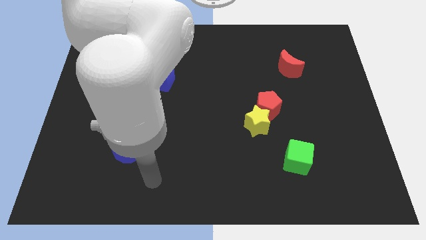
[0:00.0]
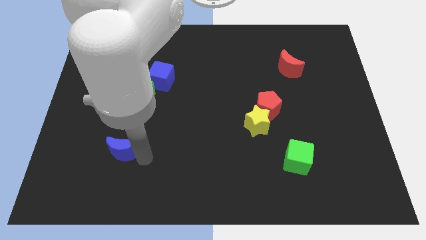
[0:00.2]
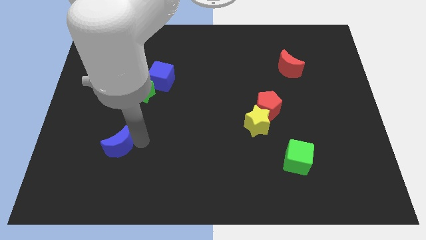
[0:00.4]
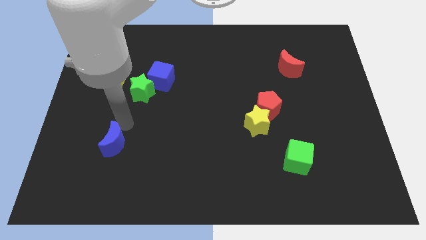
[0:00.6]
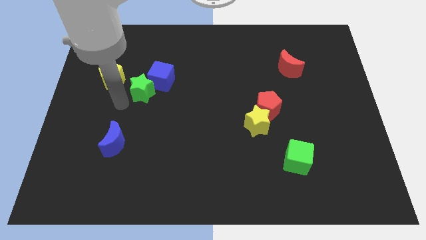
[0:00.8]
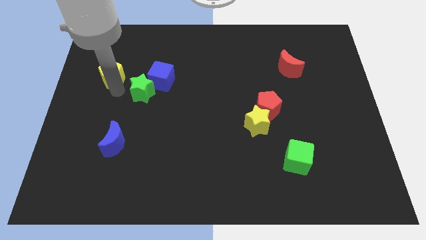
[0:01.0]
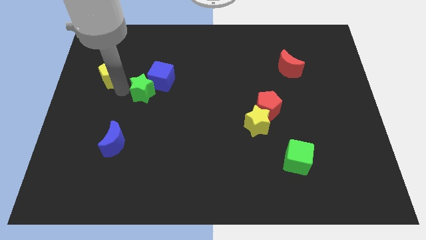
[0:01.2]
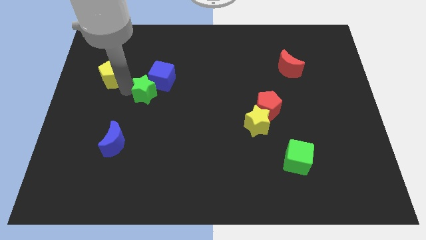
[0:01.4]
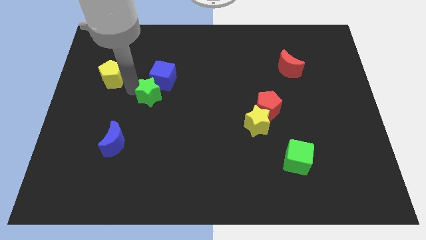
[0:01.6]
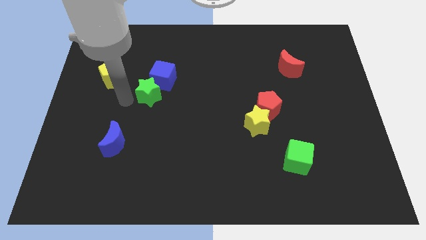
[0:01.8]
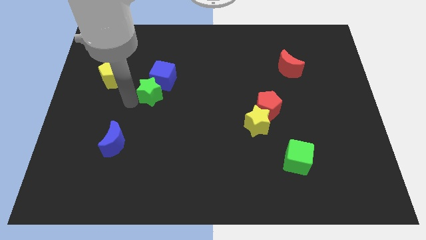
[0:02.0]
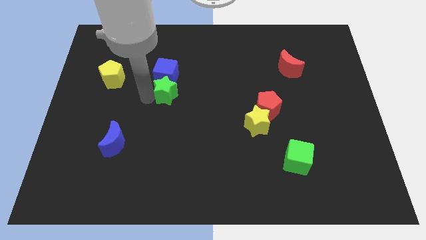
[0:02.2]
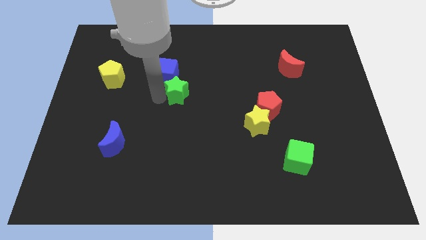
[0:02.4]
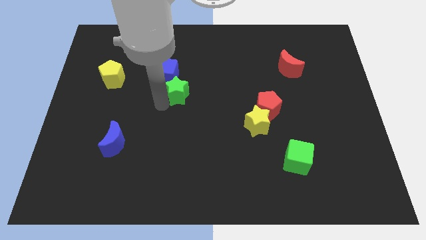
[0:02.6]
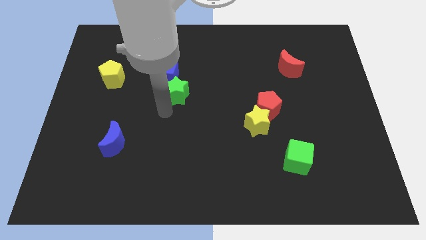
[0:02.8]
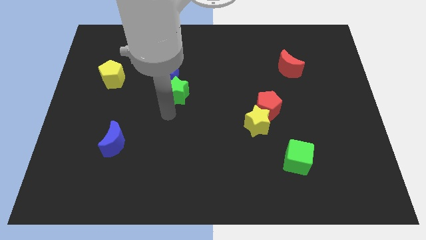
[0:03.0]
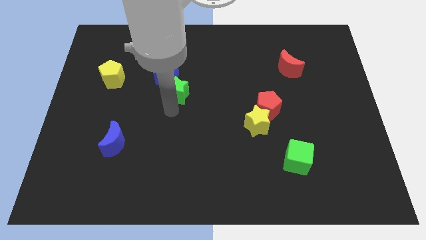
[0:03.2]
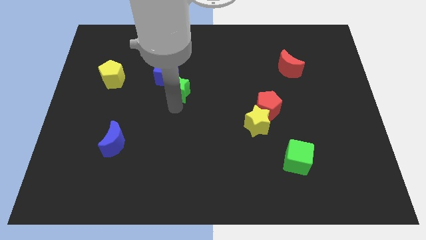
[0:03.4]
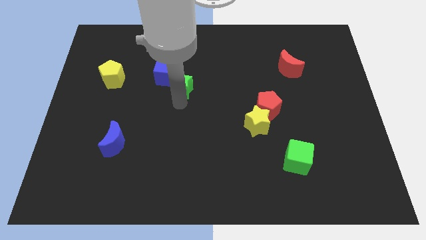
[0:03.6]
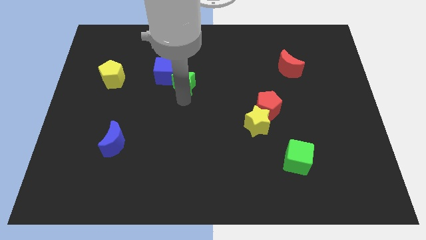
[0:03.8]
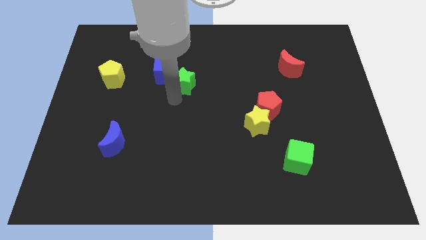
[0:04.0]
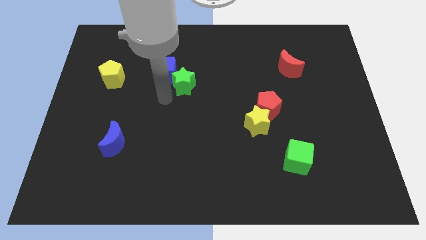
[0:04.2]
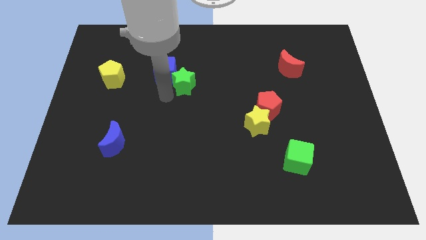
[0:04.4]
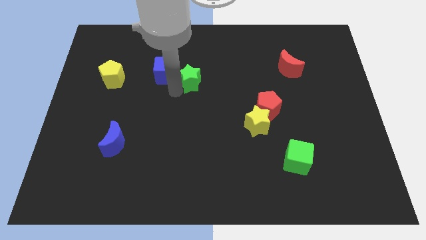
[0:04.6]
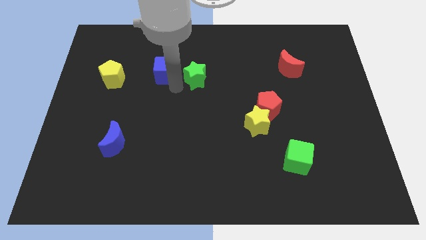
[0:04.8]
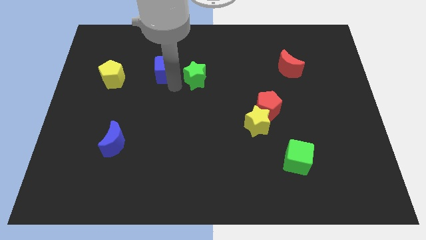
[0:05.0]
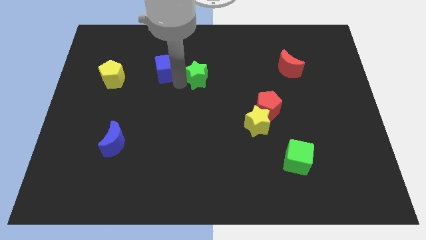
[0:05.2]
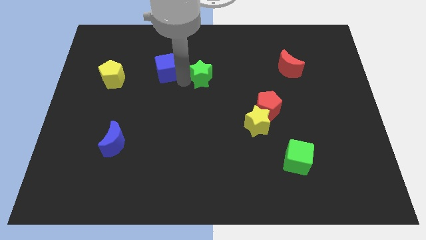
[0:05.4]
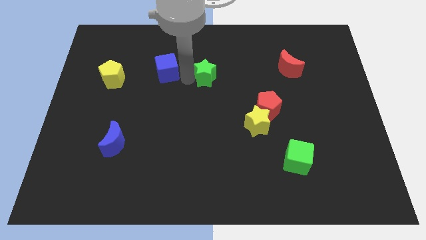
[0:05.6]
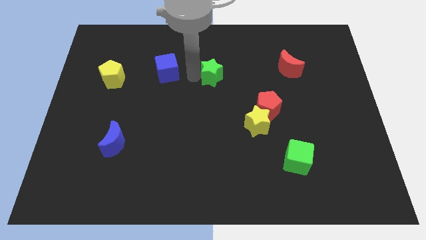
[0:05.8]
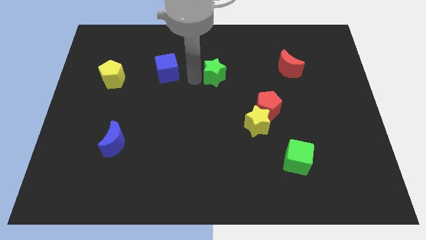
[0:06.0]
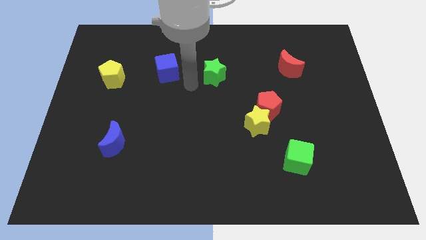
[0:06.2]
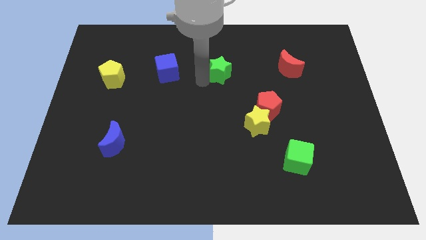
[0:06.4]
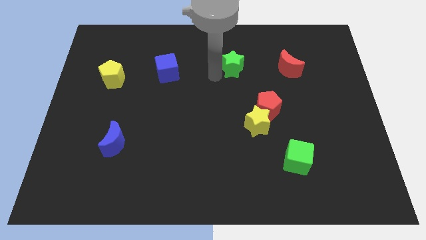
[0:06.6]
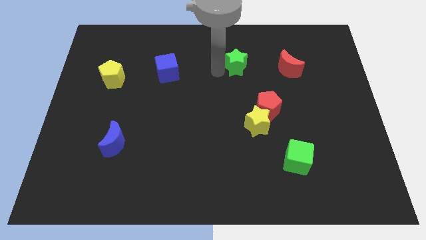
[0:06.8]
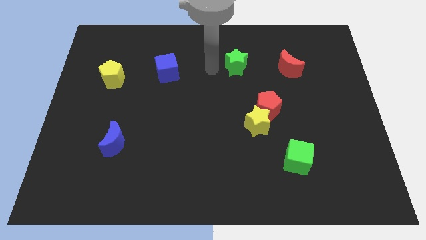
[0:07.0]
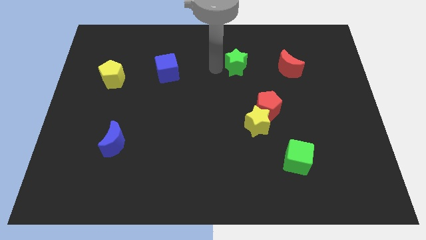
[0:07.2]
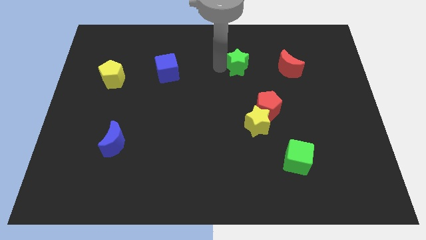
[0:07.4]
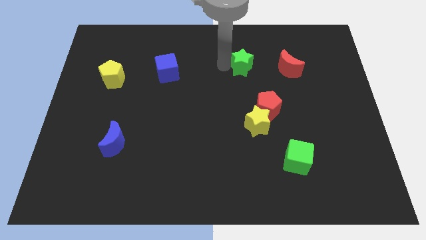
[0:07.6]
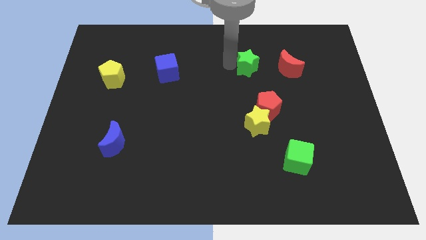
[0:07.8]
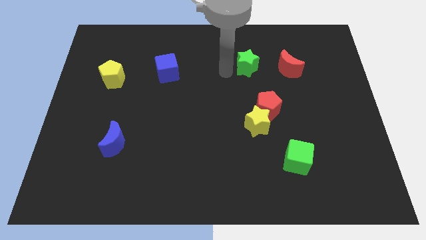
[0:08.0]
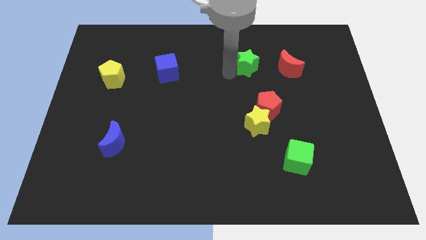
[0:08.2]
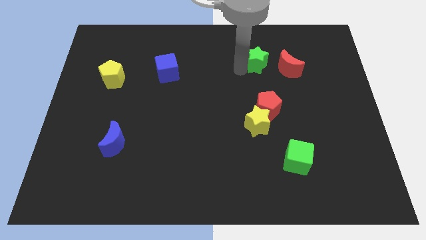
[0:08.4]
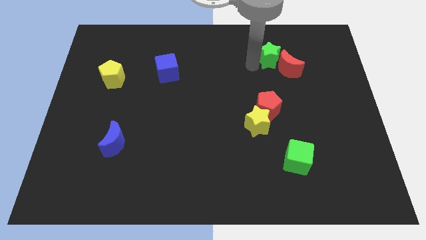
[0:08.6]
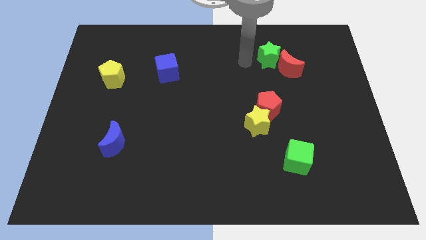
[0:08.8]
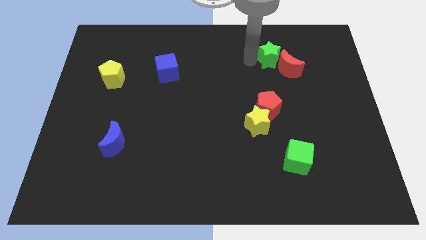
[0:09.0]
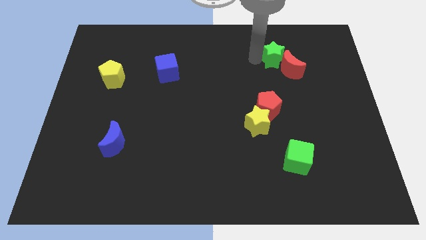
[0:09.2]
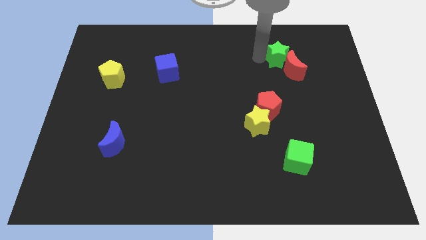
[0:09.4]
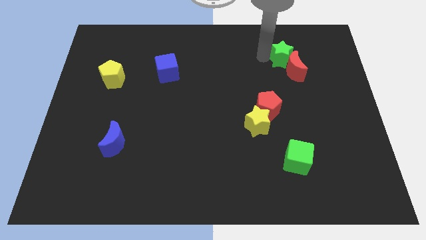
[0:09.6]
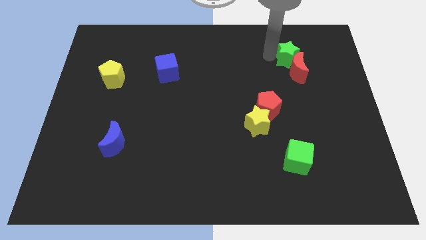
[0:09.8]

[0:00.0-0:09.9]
slide the green star to the top right side of the red moon

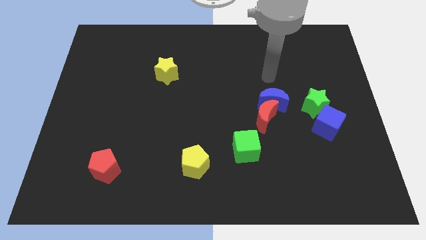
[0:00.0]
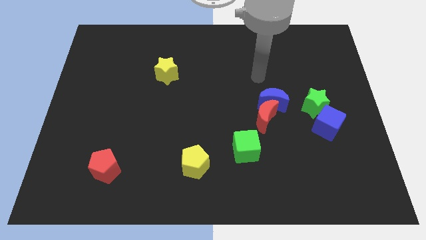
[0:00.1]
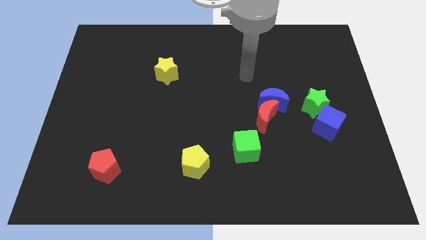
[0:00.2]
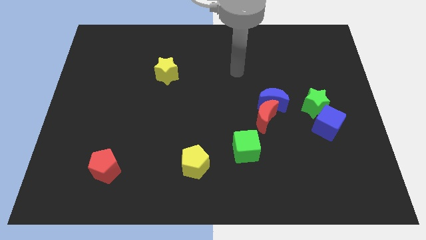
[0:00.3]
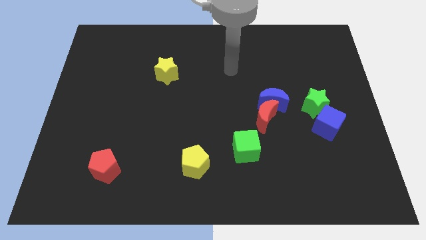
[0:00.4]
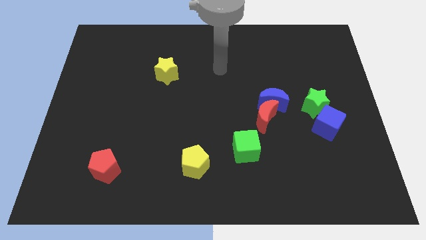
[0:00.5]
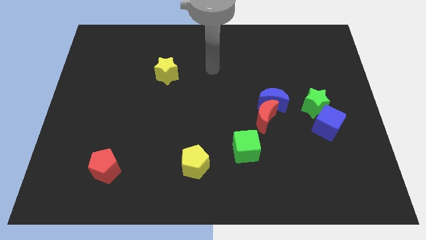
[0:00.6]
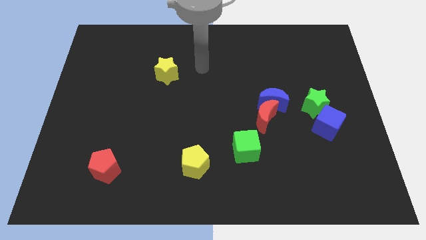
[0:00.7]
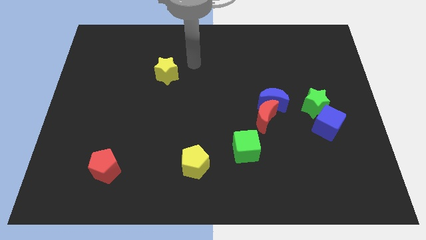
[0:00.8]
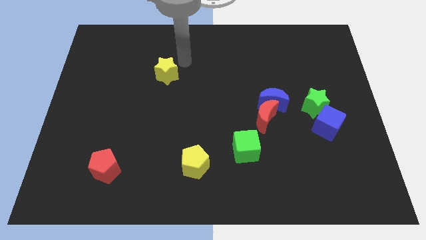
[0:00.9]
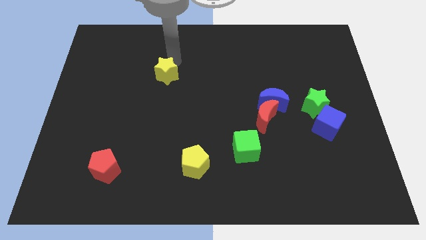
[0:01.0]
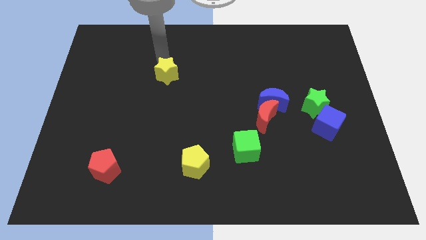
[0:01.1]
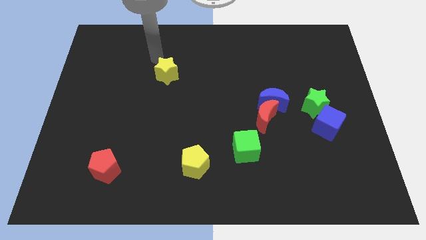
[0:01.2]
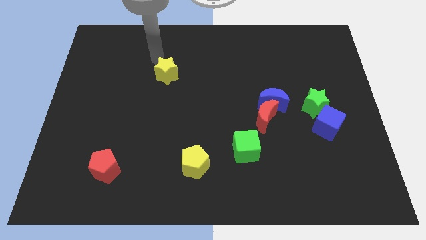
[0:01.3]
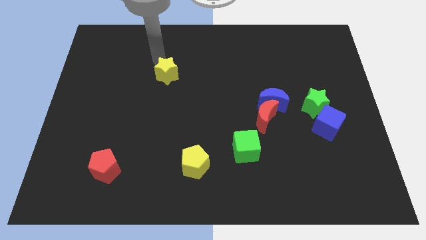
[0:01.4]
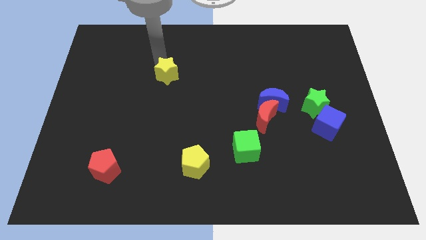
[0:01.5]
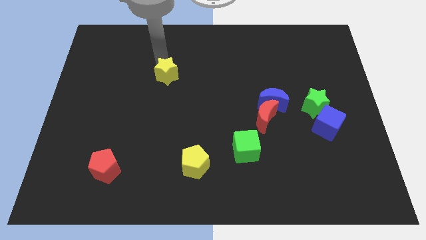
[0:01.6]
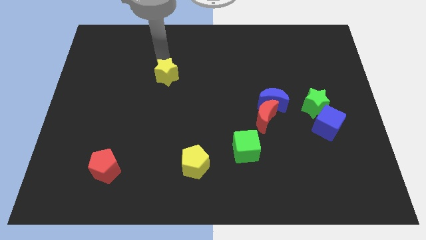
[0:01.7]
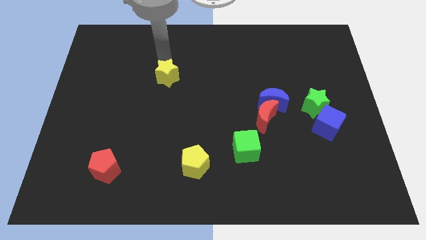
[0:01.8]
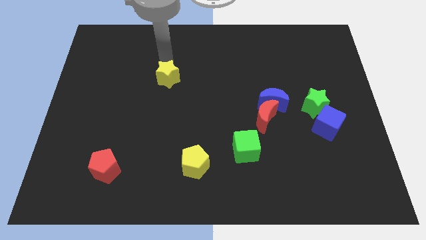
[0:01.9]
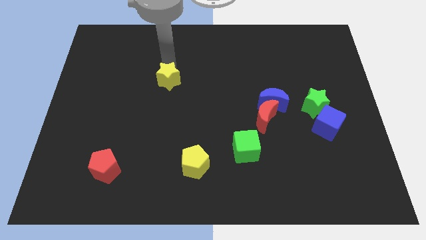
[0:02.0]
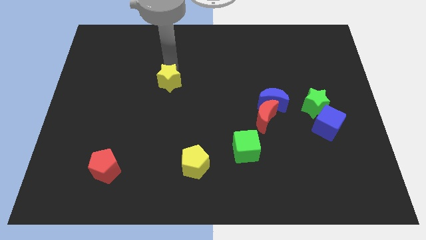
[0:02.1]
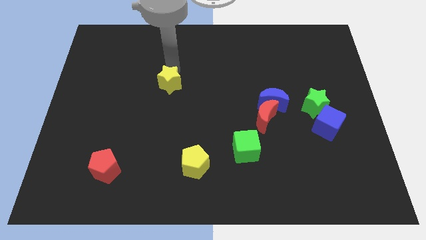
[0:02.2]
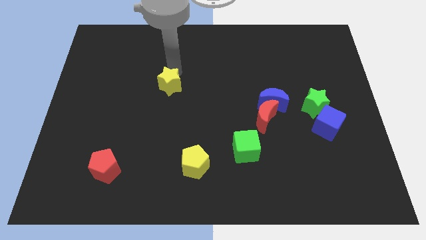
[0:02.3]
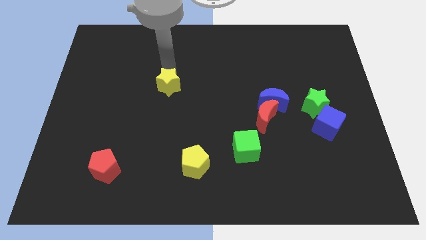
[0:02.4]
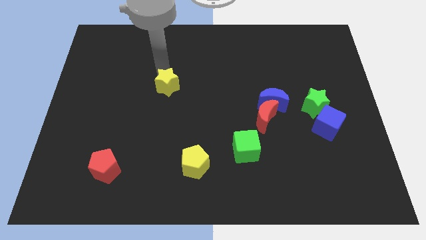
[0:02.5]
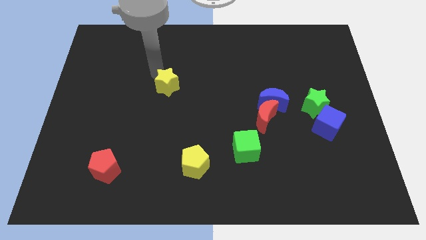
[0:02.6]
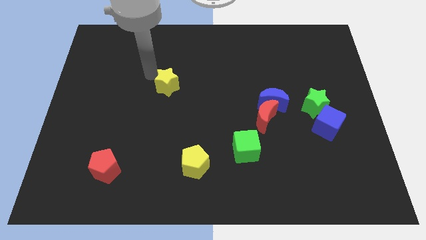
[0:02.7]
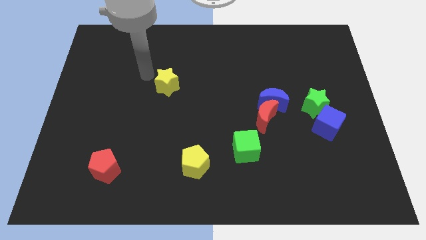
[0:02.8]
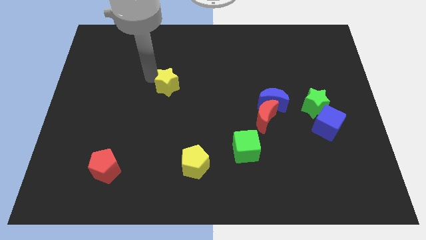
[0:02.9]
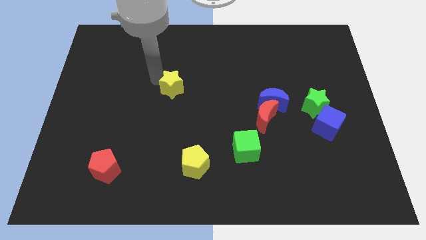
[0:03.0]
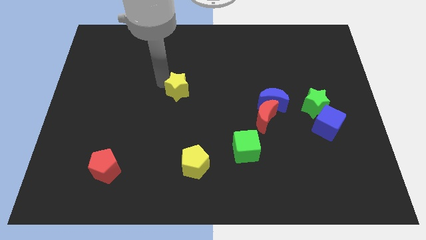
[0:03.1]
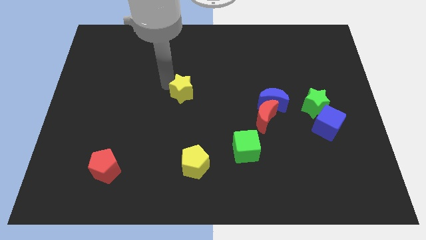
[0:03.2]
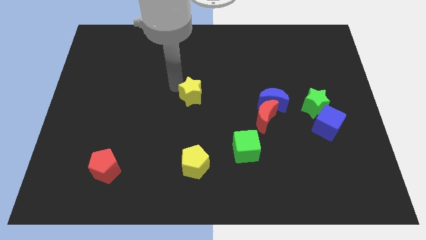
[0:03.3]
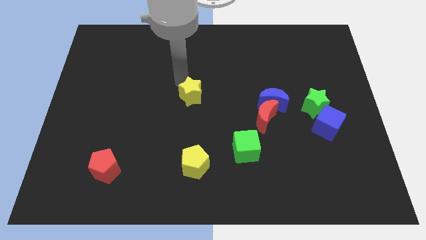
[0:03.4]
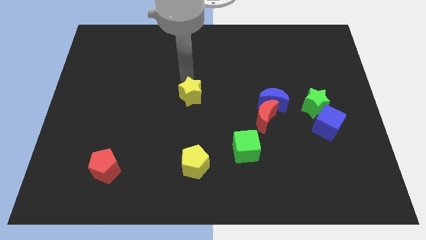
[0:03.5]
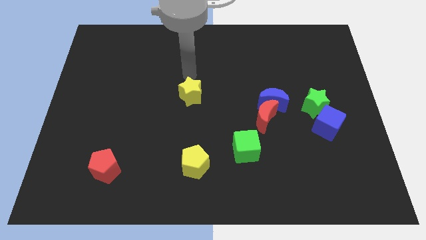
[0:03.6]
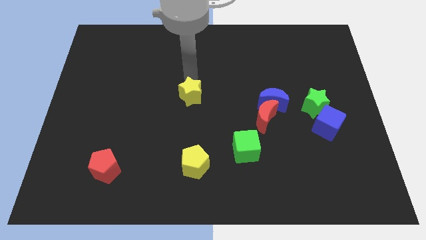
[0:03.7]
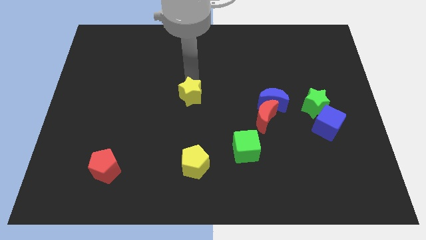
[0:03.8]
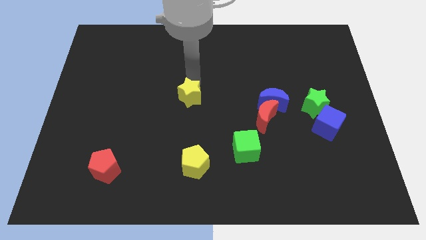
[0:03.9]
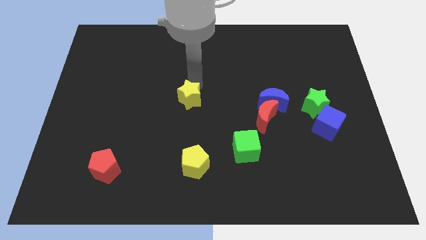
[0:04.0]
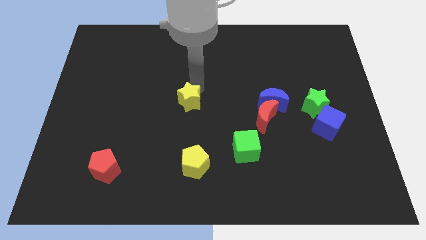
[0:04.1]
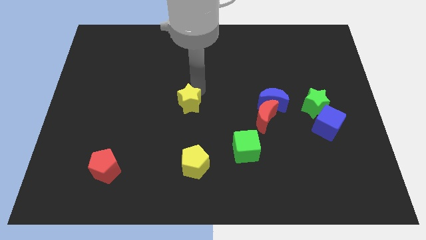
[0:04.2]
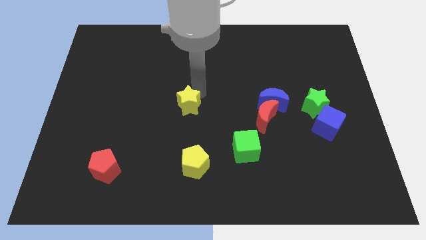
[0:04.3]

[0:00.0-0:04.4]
move the yellow star above the yellow pentagon
